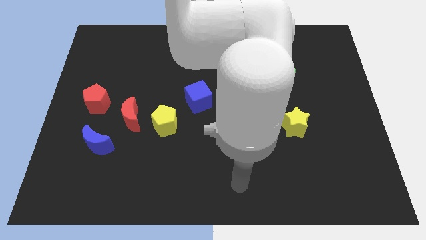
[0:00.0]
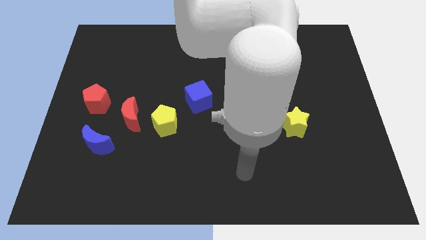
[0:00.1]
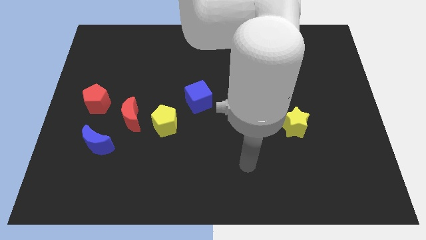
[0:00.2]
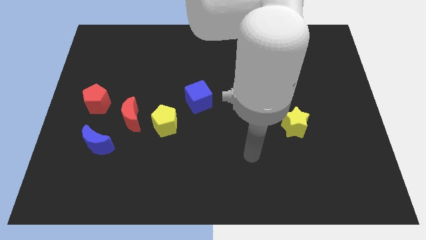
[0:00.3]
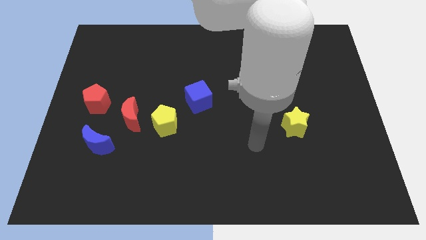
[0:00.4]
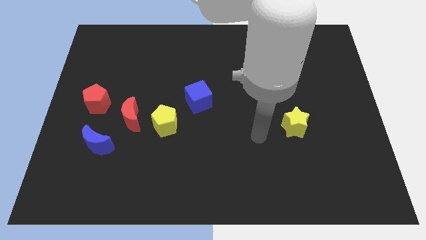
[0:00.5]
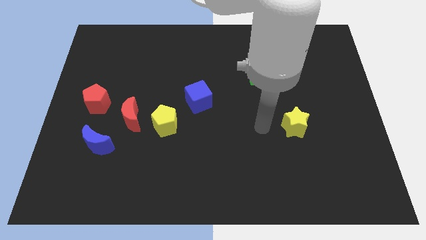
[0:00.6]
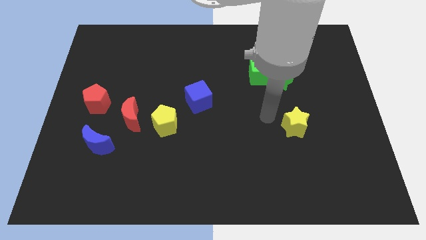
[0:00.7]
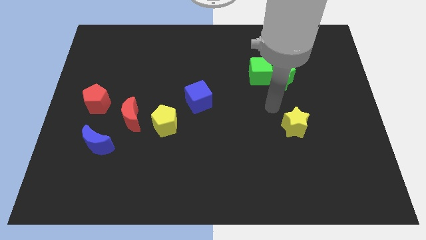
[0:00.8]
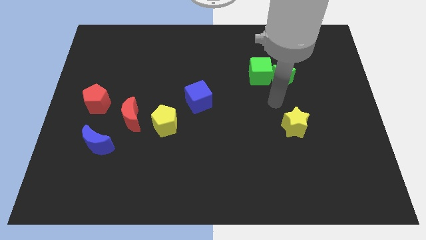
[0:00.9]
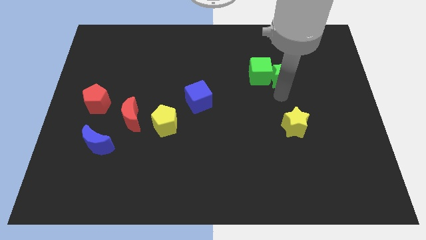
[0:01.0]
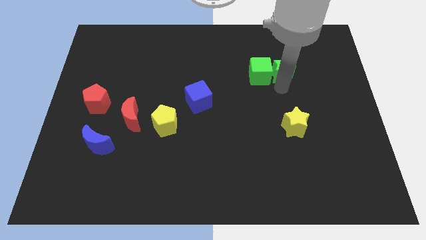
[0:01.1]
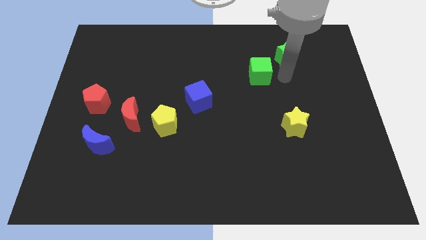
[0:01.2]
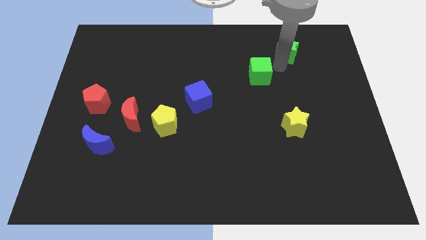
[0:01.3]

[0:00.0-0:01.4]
move the green cube away from the green star

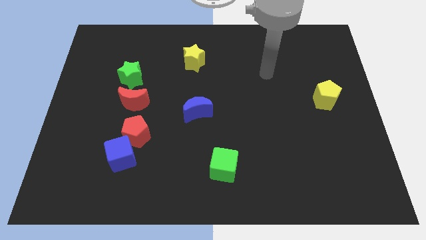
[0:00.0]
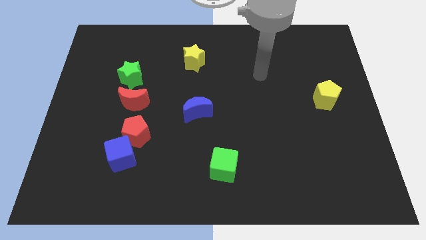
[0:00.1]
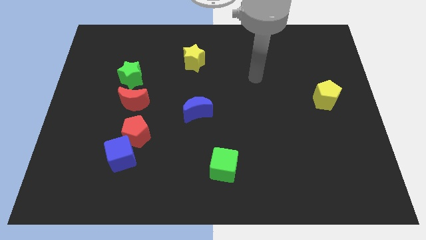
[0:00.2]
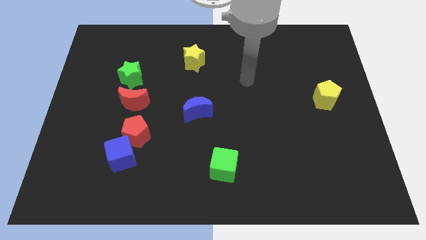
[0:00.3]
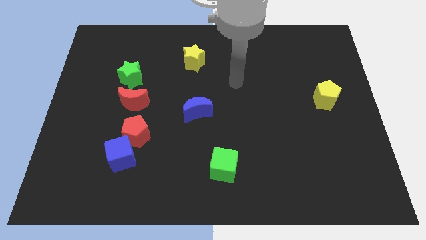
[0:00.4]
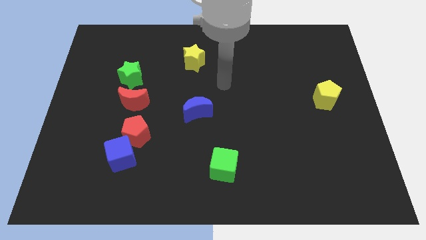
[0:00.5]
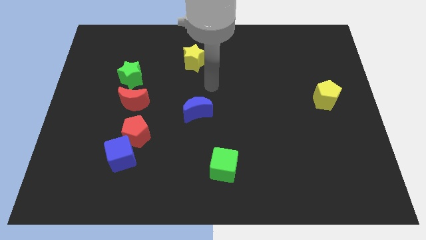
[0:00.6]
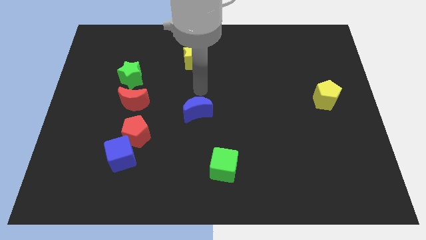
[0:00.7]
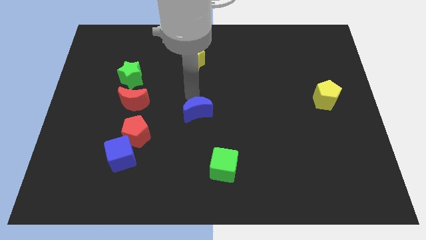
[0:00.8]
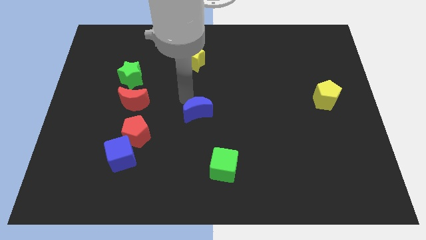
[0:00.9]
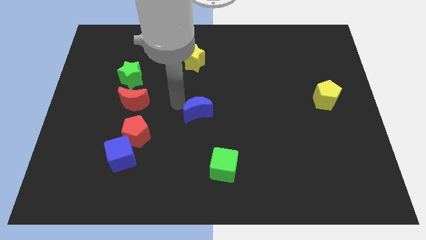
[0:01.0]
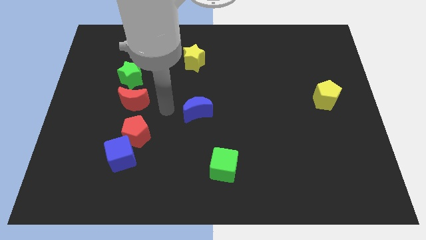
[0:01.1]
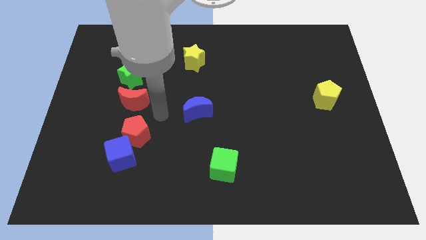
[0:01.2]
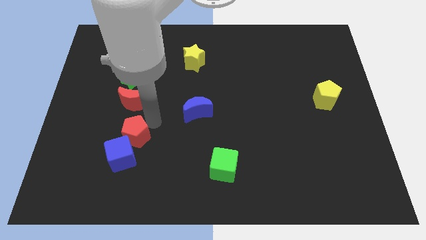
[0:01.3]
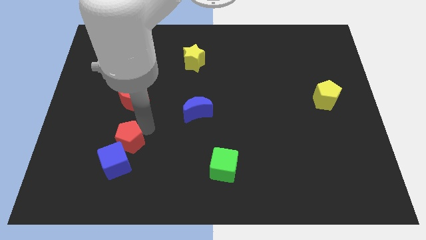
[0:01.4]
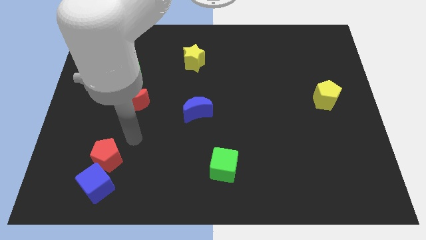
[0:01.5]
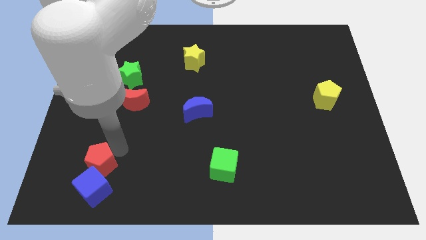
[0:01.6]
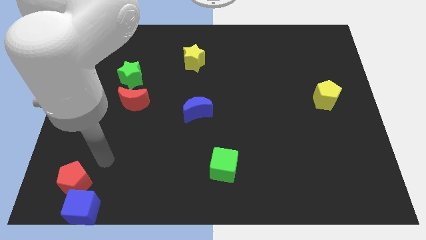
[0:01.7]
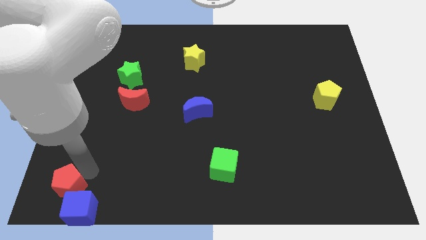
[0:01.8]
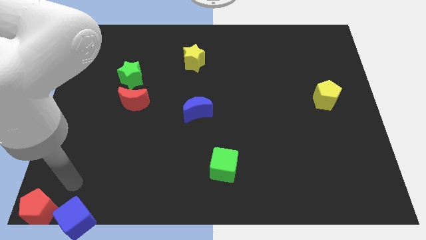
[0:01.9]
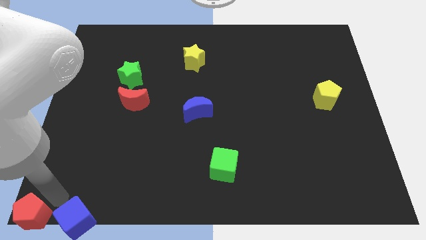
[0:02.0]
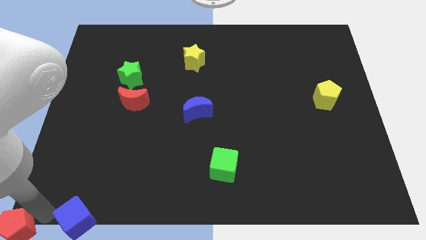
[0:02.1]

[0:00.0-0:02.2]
move the blue cube away from the red pentagon

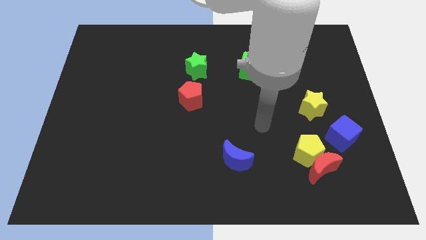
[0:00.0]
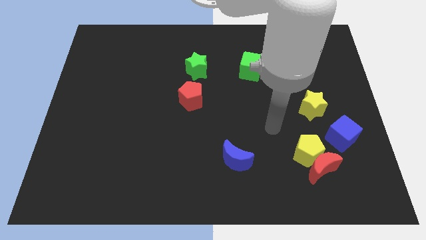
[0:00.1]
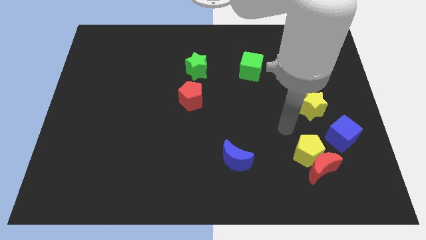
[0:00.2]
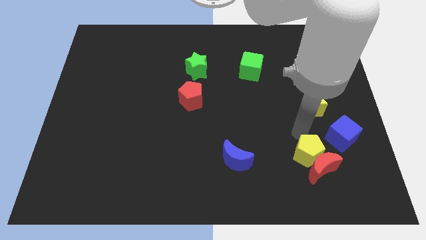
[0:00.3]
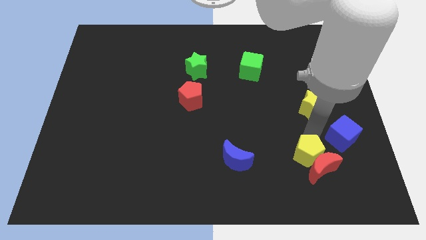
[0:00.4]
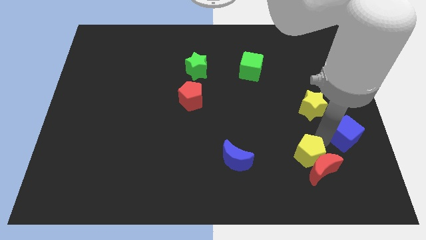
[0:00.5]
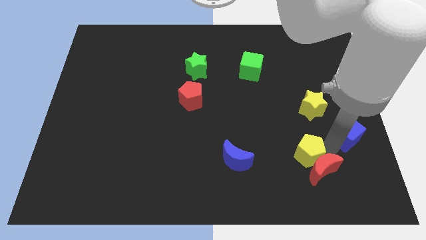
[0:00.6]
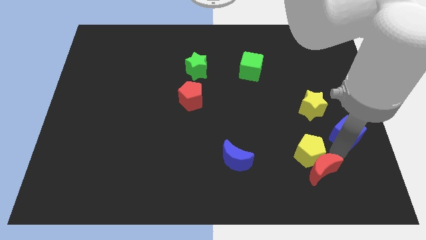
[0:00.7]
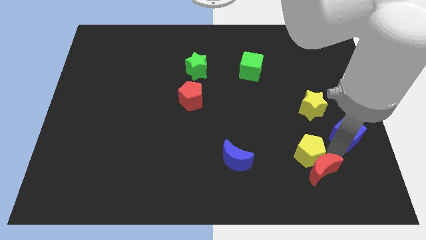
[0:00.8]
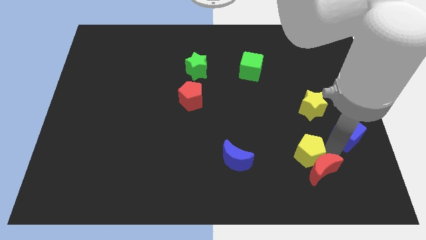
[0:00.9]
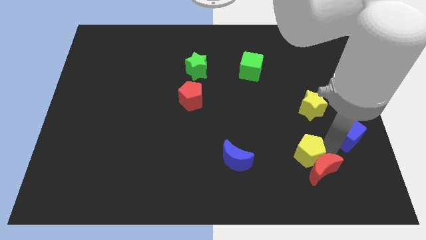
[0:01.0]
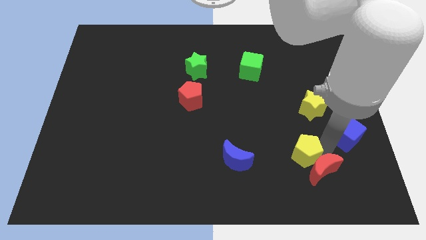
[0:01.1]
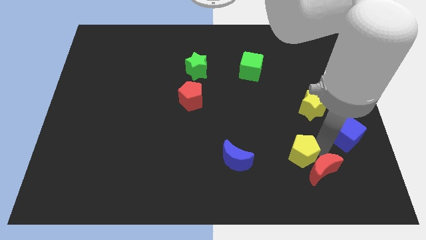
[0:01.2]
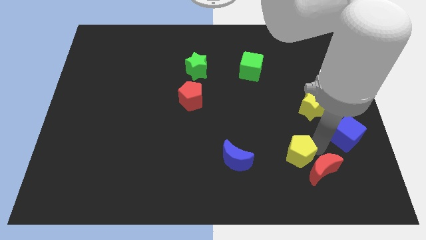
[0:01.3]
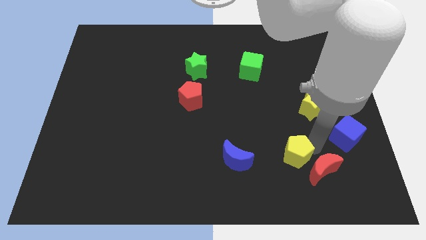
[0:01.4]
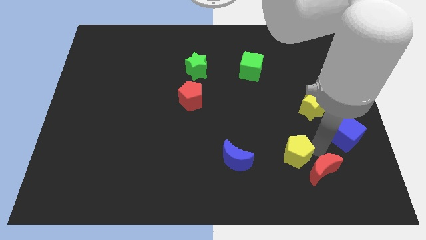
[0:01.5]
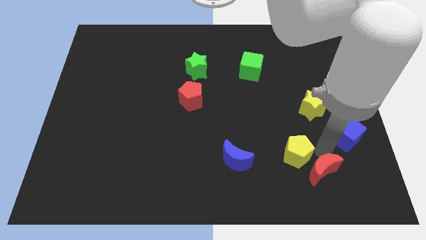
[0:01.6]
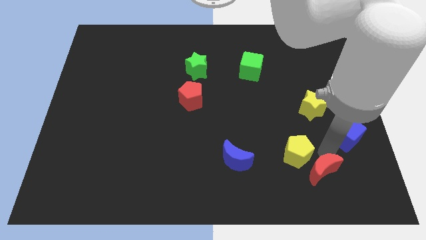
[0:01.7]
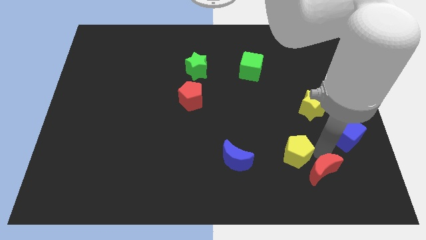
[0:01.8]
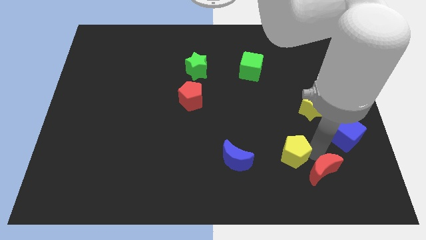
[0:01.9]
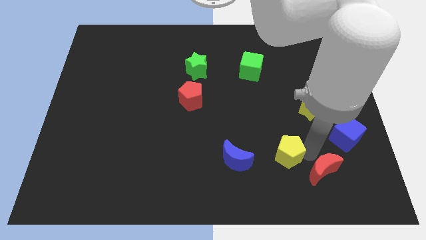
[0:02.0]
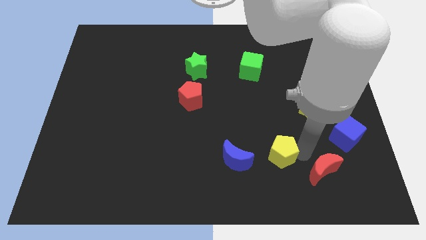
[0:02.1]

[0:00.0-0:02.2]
pull the yellow pentagon apart from the red moon and blue cube

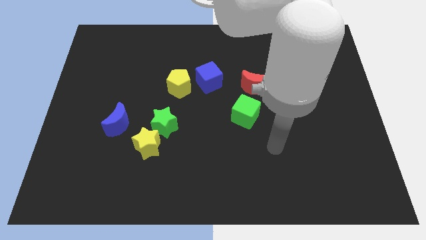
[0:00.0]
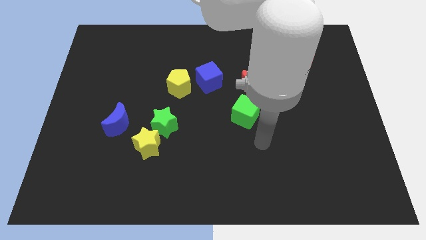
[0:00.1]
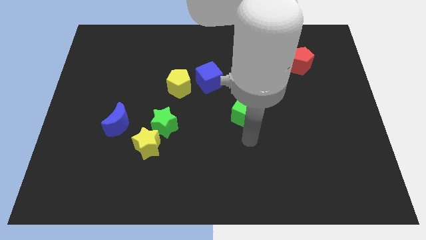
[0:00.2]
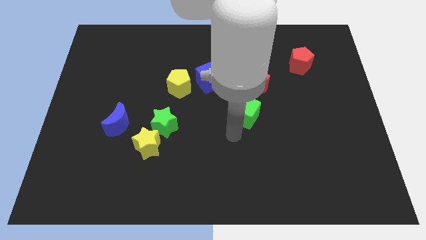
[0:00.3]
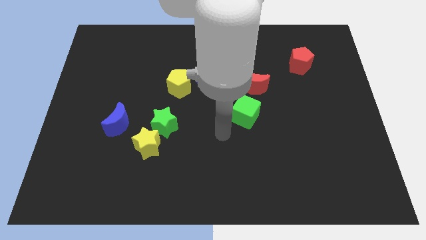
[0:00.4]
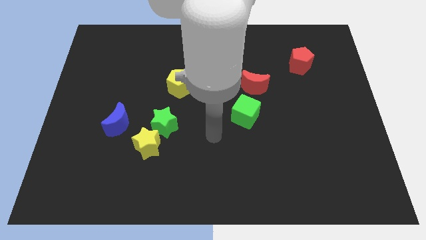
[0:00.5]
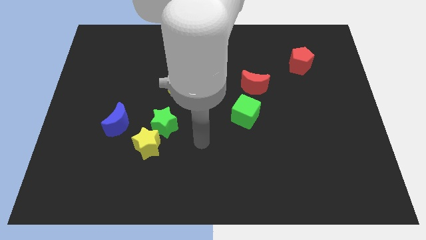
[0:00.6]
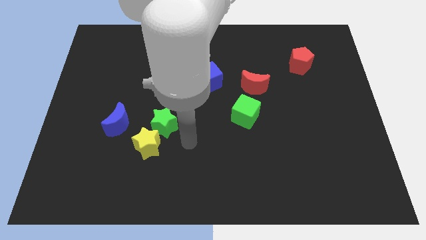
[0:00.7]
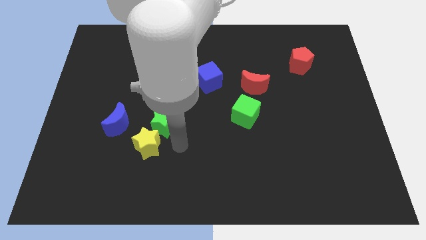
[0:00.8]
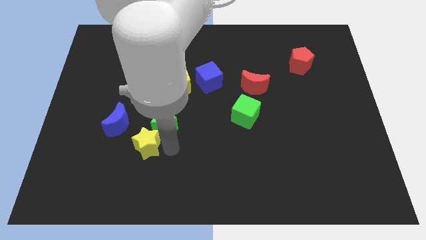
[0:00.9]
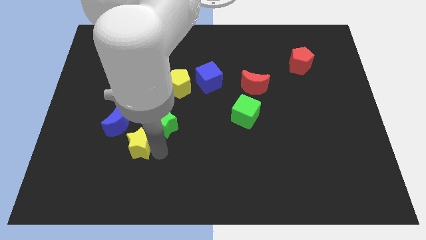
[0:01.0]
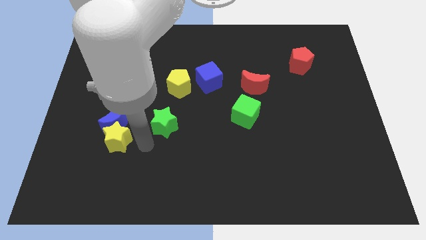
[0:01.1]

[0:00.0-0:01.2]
move the green star away from the yellow star

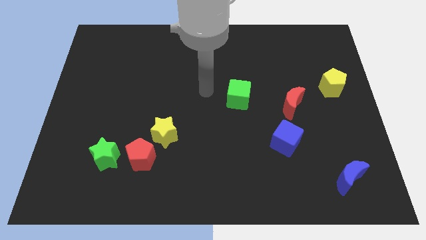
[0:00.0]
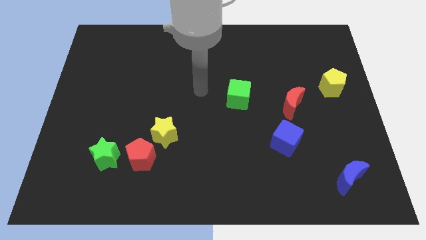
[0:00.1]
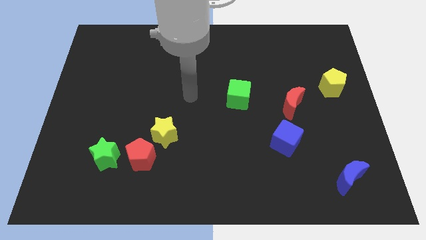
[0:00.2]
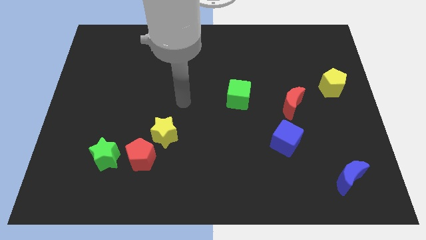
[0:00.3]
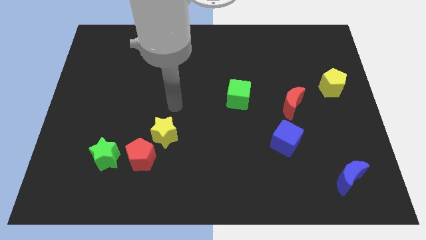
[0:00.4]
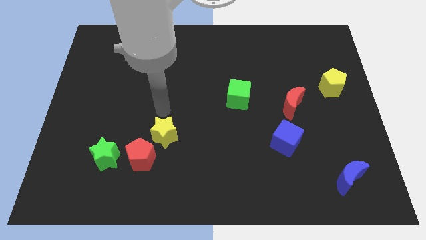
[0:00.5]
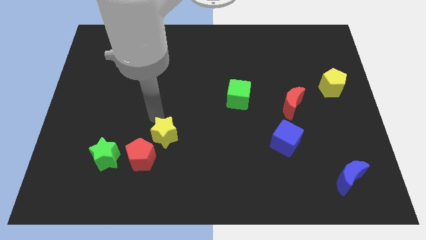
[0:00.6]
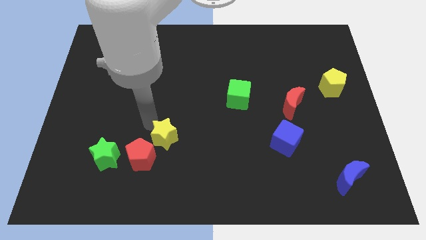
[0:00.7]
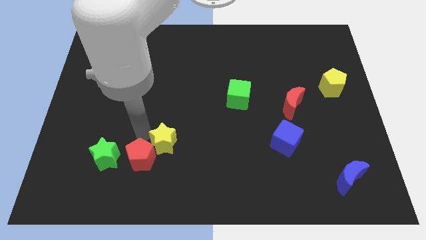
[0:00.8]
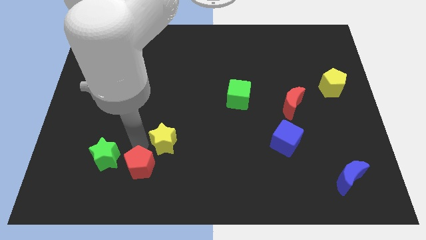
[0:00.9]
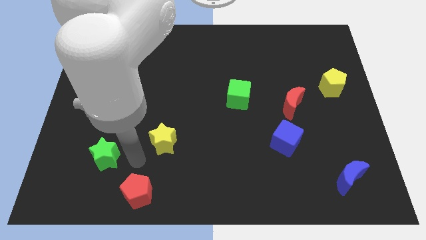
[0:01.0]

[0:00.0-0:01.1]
move the green star away from the red pentagon

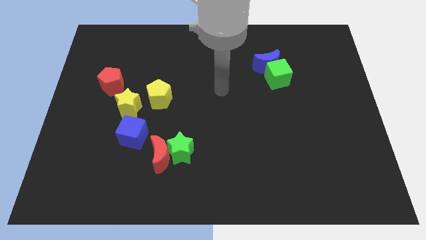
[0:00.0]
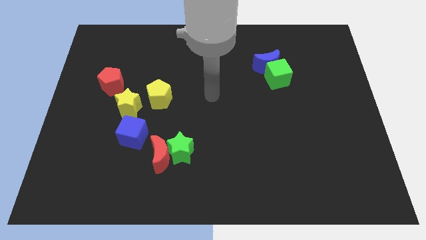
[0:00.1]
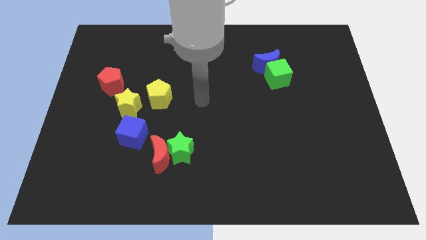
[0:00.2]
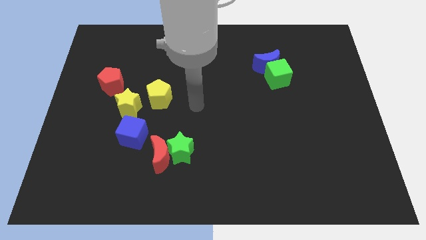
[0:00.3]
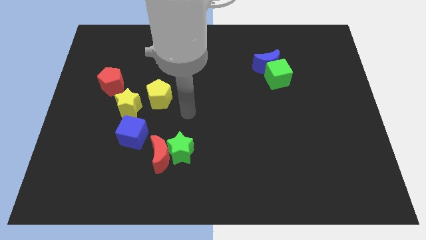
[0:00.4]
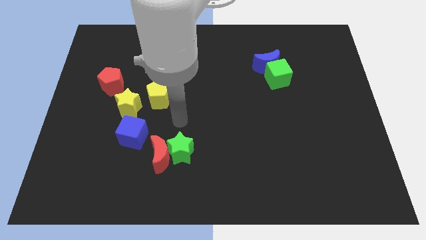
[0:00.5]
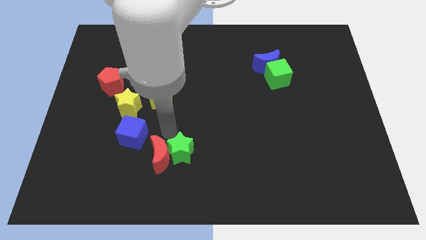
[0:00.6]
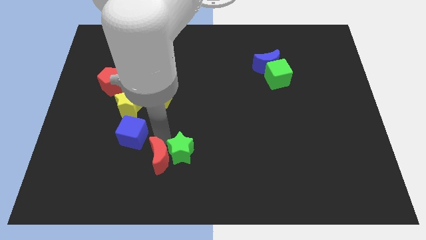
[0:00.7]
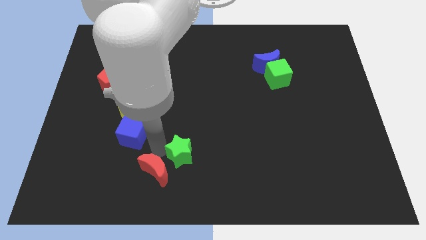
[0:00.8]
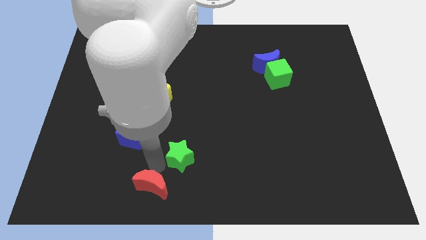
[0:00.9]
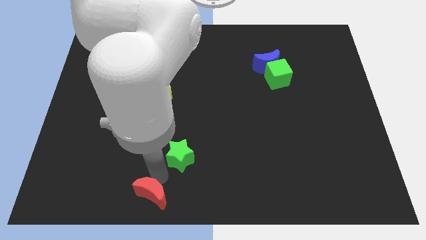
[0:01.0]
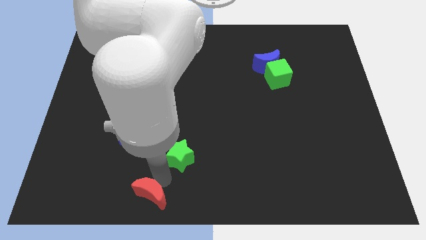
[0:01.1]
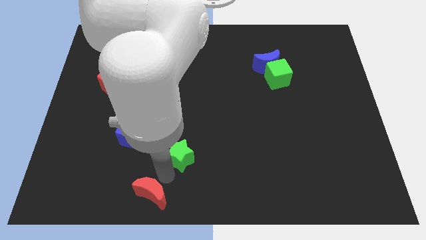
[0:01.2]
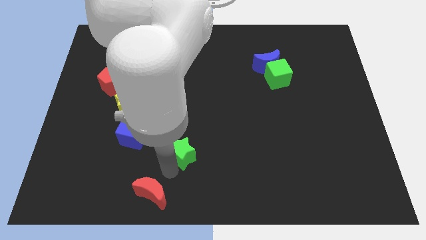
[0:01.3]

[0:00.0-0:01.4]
pull the green star apart from the red moon
